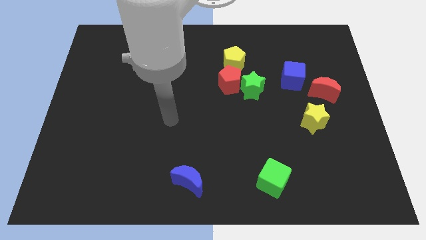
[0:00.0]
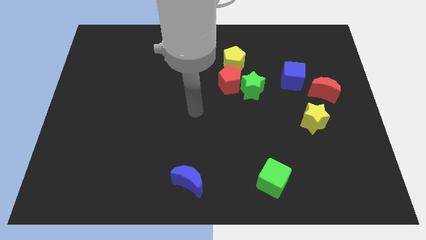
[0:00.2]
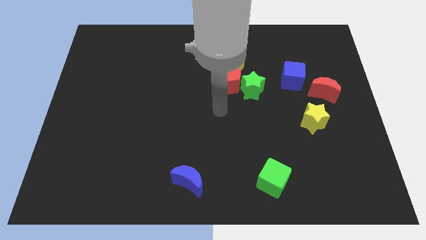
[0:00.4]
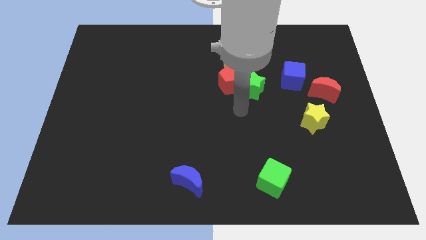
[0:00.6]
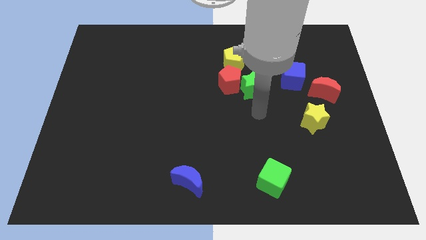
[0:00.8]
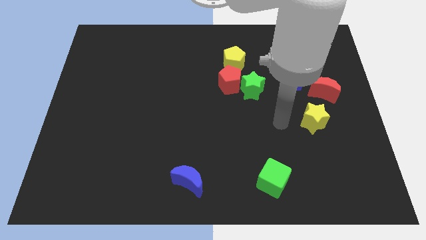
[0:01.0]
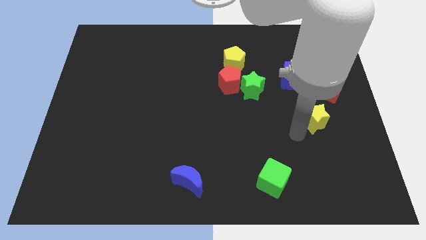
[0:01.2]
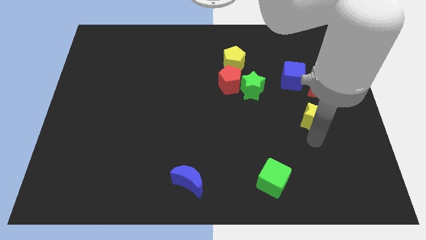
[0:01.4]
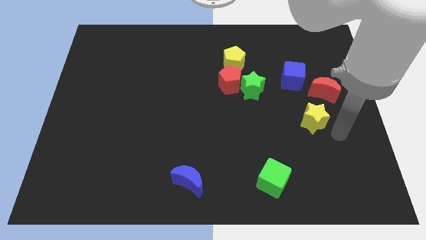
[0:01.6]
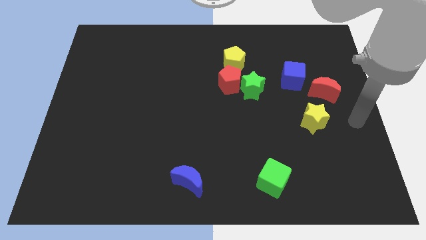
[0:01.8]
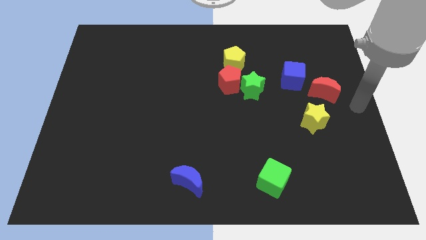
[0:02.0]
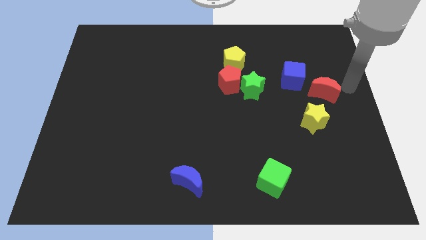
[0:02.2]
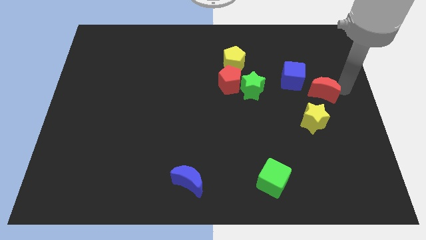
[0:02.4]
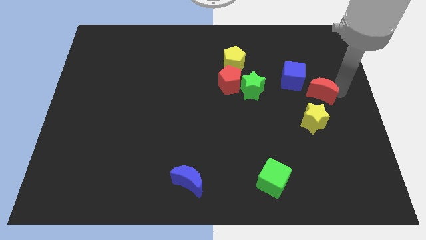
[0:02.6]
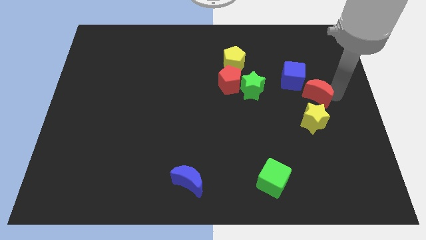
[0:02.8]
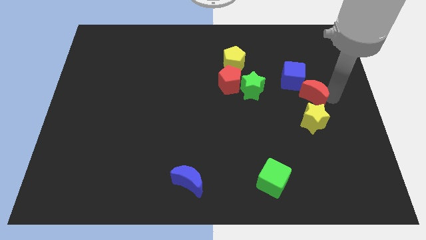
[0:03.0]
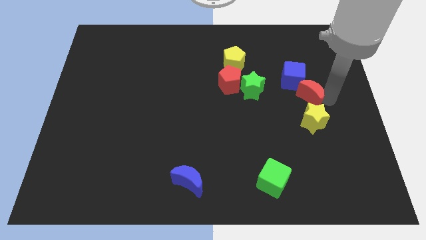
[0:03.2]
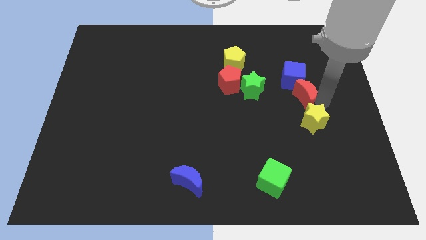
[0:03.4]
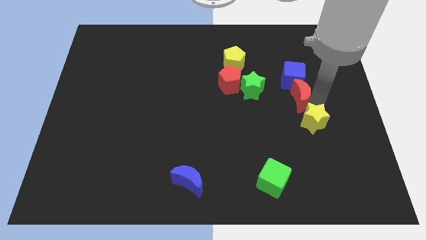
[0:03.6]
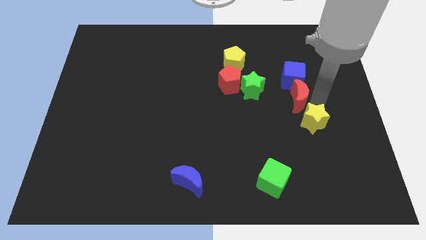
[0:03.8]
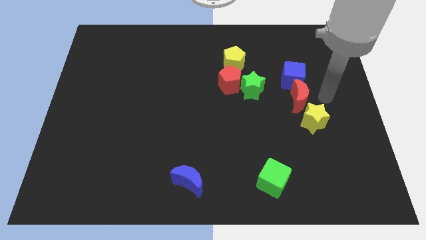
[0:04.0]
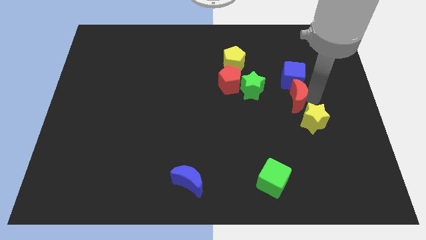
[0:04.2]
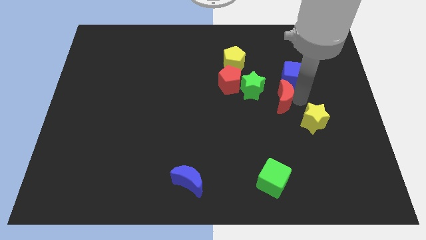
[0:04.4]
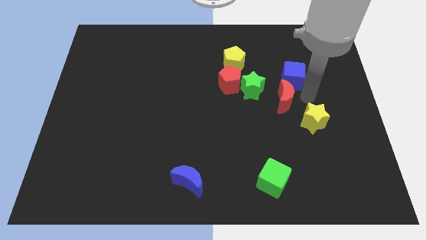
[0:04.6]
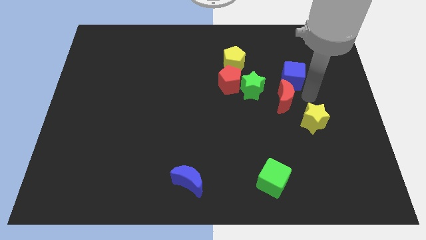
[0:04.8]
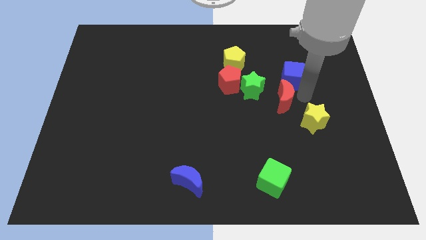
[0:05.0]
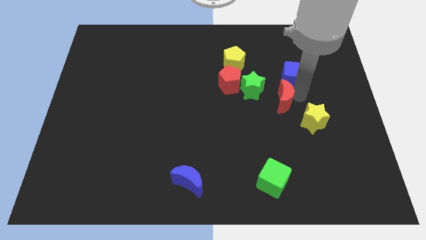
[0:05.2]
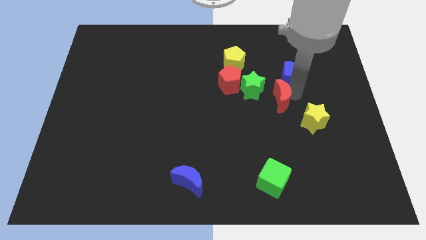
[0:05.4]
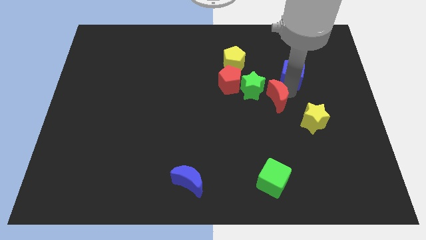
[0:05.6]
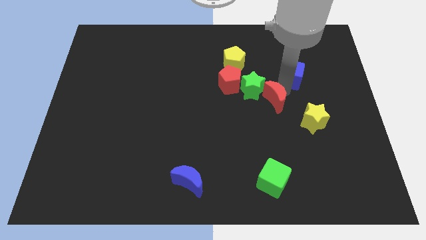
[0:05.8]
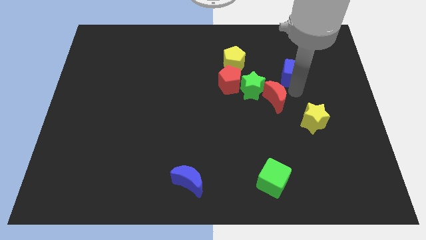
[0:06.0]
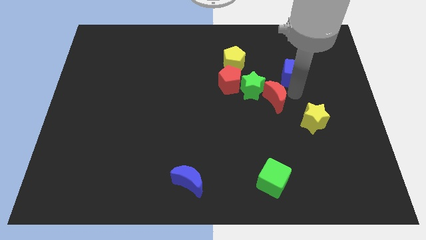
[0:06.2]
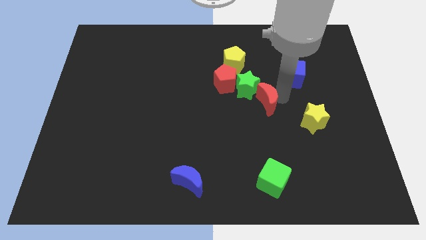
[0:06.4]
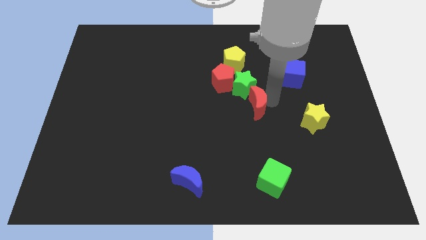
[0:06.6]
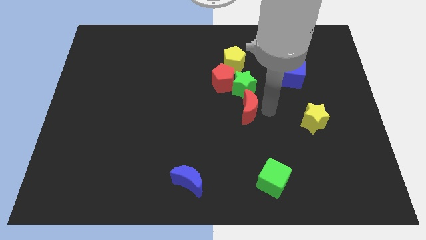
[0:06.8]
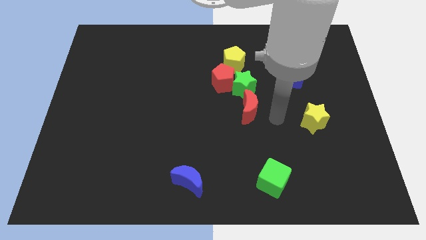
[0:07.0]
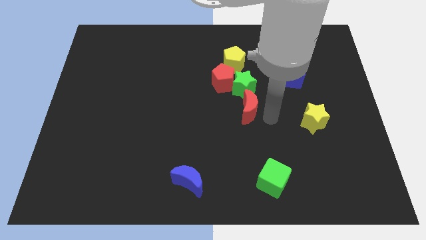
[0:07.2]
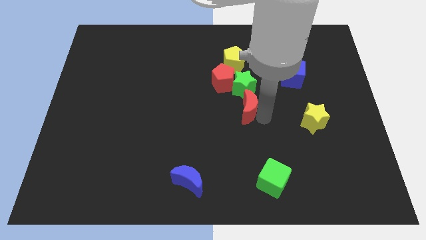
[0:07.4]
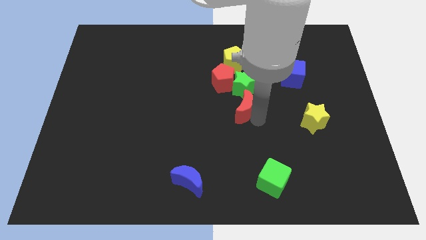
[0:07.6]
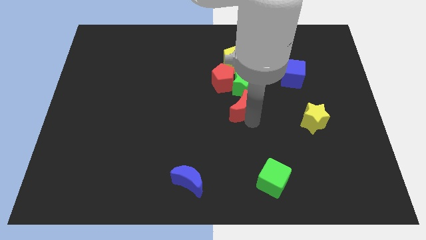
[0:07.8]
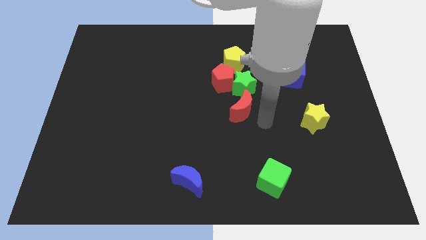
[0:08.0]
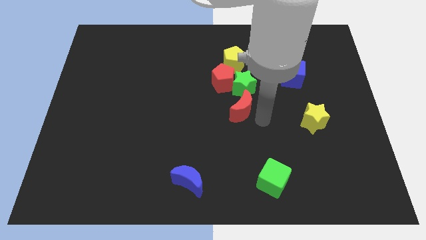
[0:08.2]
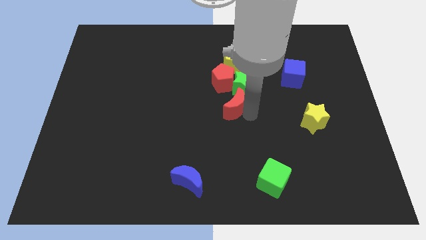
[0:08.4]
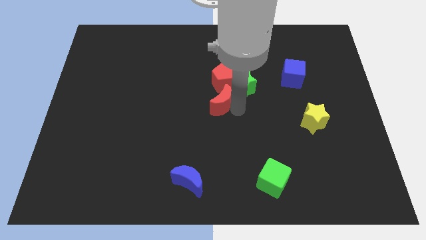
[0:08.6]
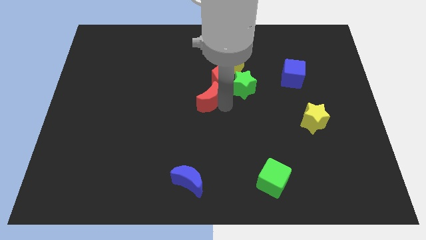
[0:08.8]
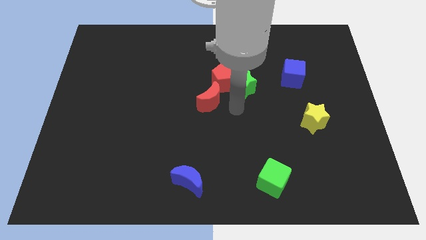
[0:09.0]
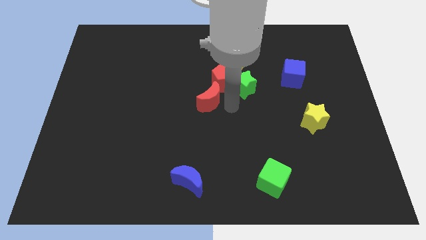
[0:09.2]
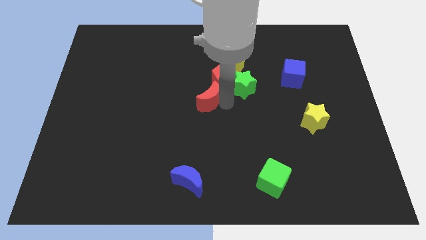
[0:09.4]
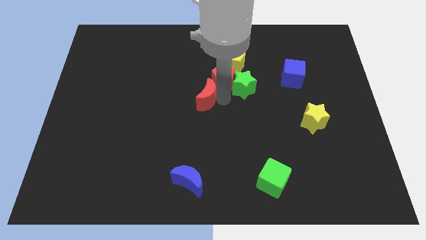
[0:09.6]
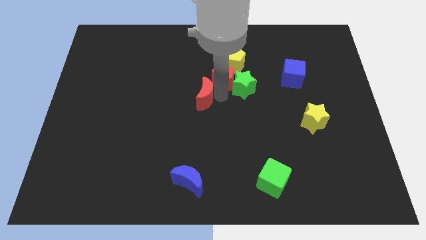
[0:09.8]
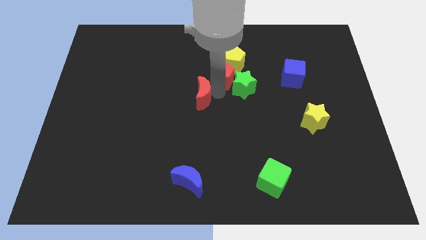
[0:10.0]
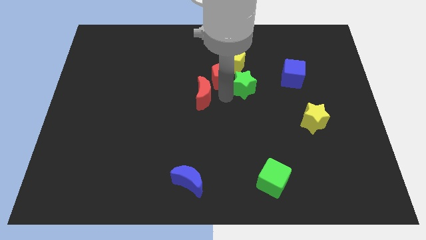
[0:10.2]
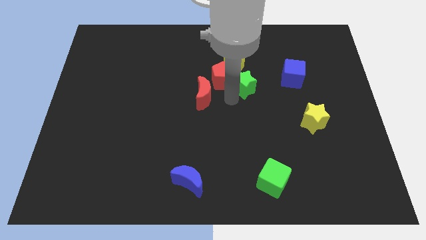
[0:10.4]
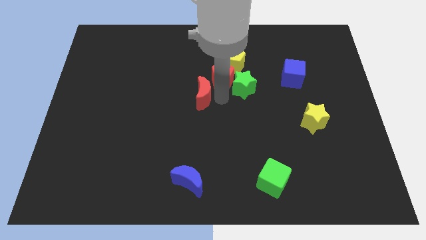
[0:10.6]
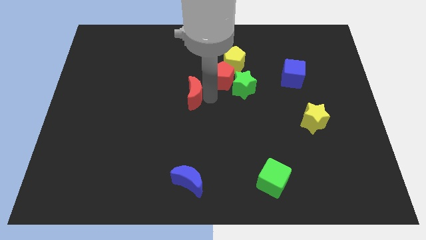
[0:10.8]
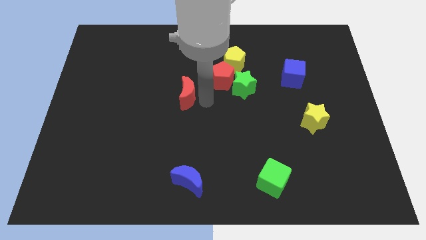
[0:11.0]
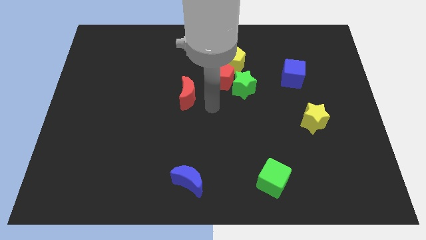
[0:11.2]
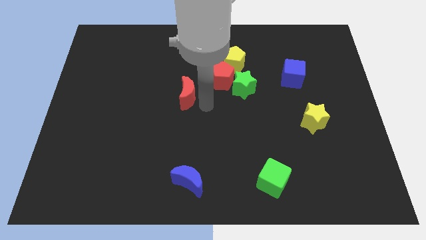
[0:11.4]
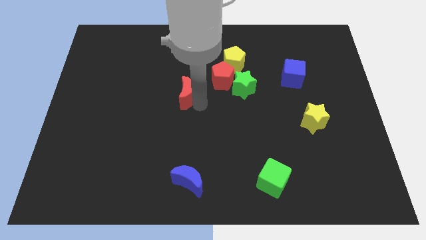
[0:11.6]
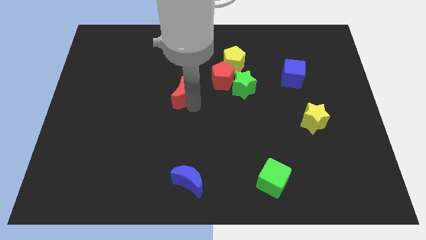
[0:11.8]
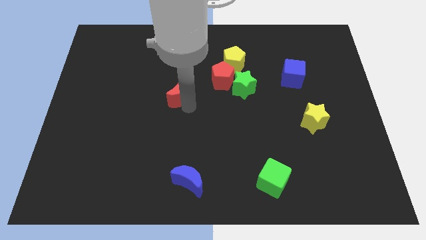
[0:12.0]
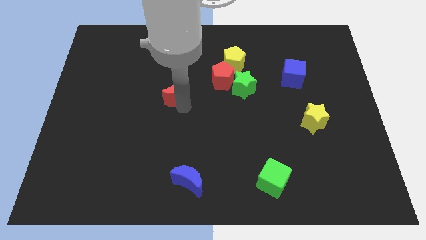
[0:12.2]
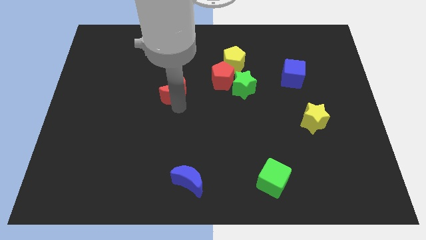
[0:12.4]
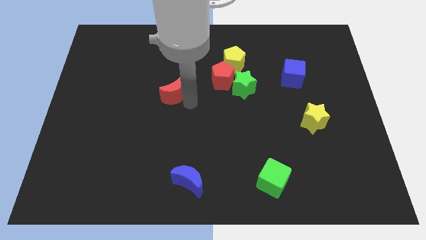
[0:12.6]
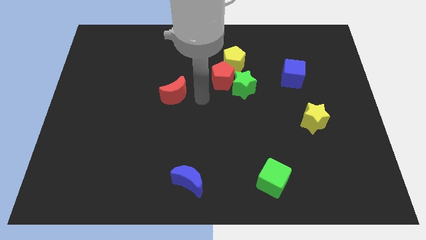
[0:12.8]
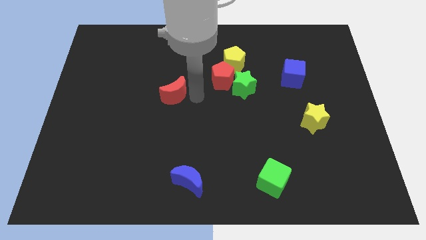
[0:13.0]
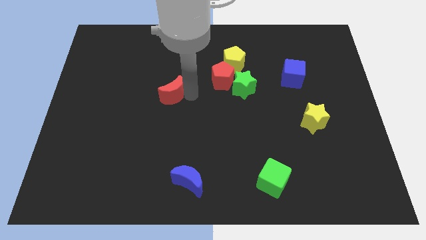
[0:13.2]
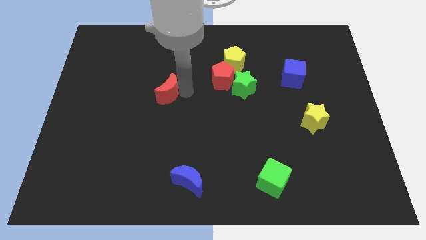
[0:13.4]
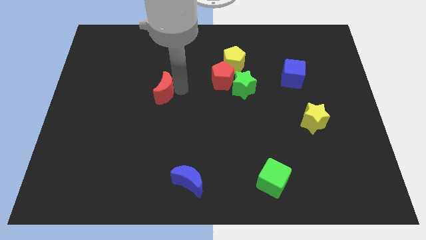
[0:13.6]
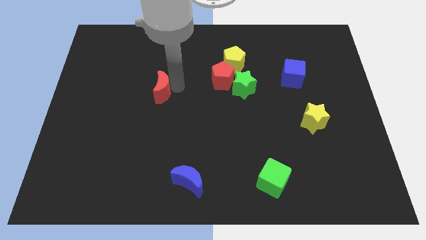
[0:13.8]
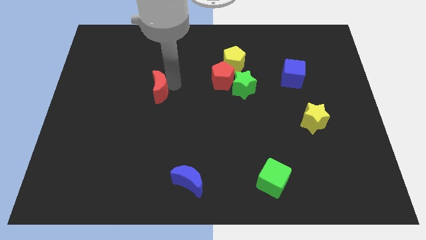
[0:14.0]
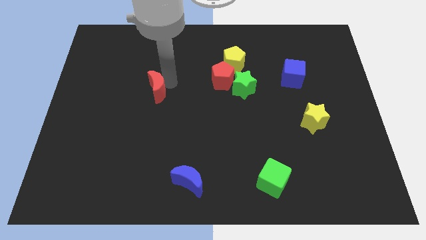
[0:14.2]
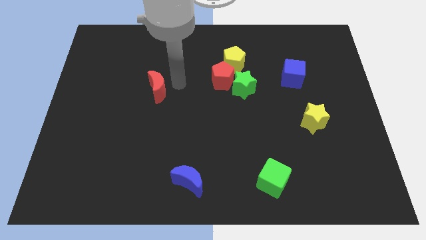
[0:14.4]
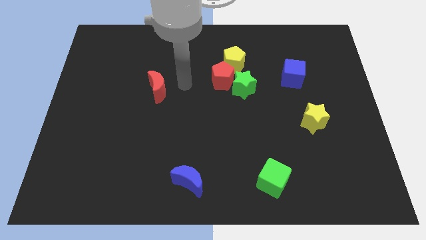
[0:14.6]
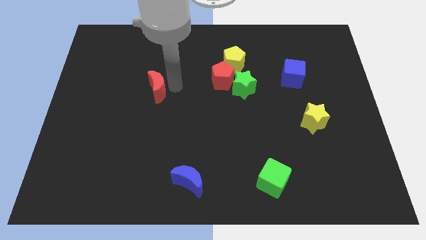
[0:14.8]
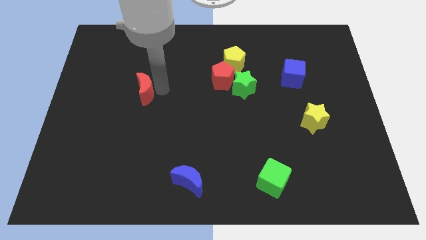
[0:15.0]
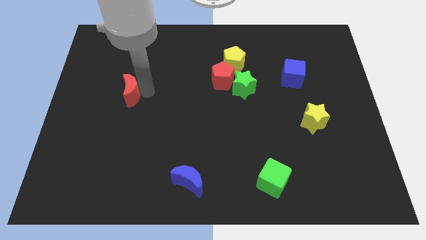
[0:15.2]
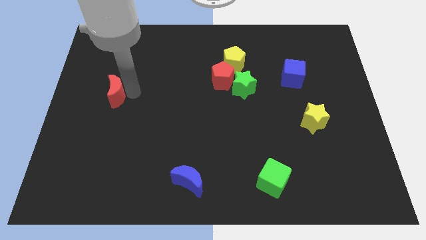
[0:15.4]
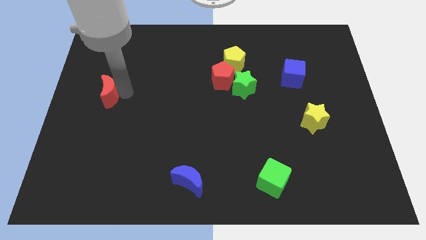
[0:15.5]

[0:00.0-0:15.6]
slide the red moon to the left side of the board
